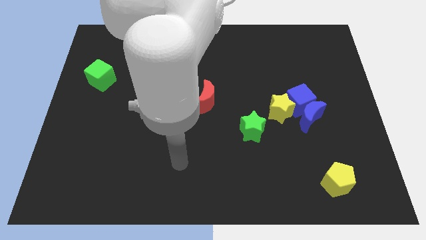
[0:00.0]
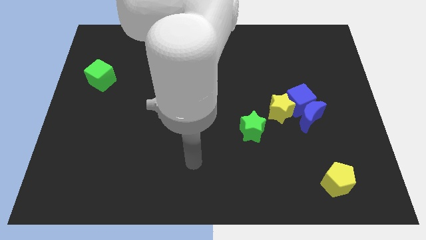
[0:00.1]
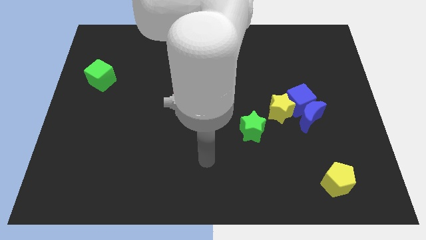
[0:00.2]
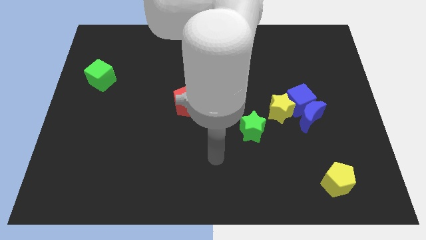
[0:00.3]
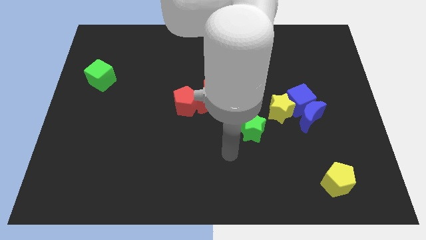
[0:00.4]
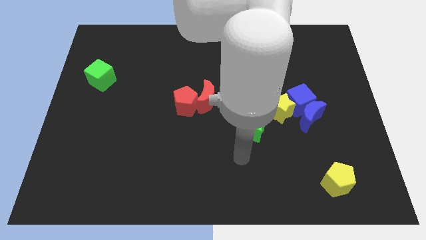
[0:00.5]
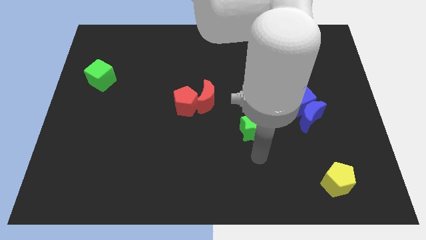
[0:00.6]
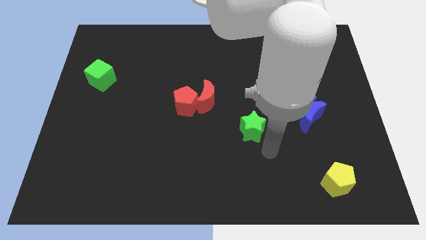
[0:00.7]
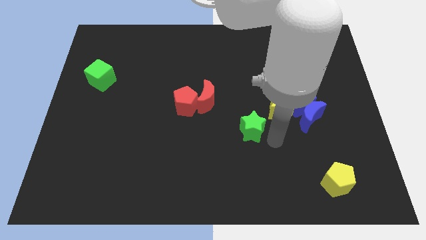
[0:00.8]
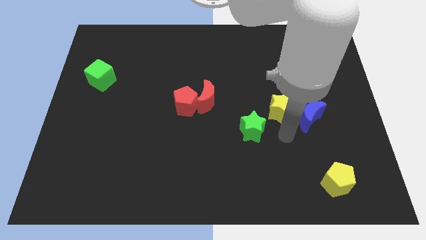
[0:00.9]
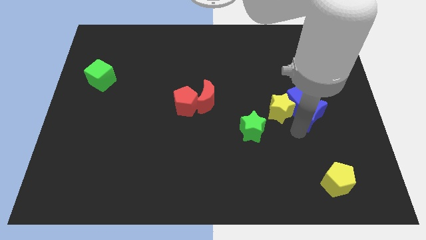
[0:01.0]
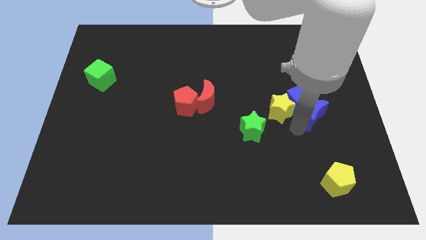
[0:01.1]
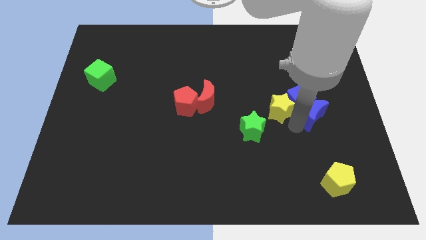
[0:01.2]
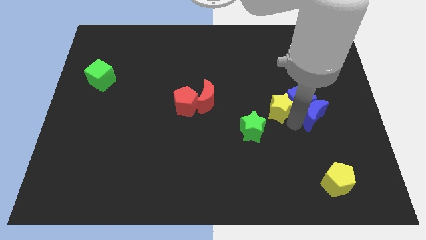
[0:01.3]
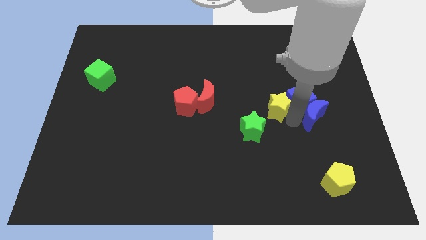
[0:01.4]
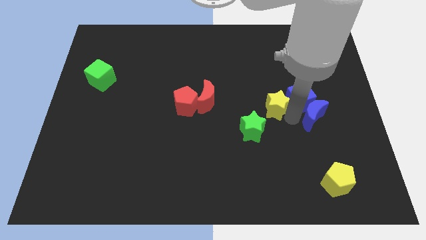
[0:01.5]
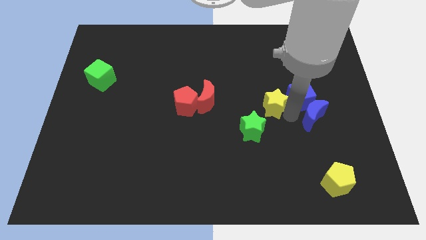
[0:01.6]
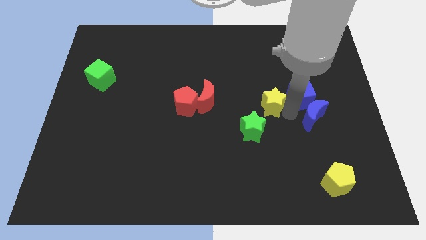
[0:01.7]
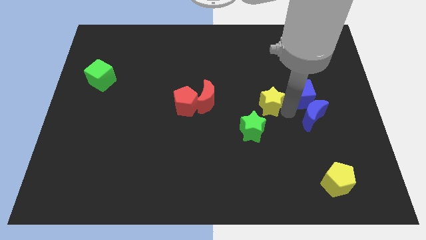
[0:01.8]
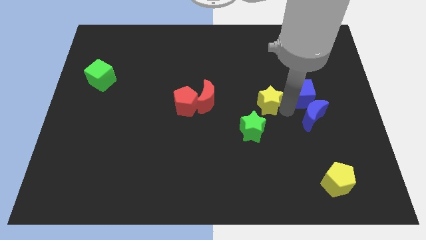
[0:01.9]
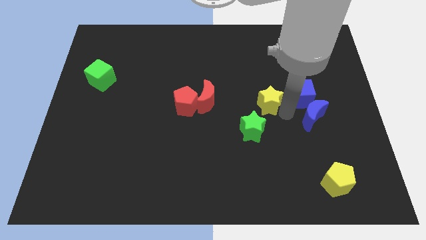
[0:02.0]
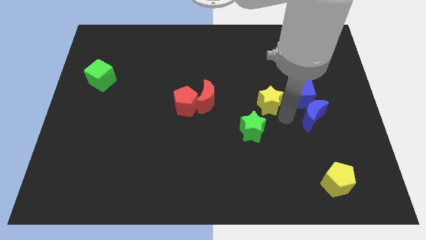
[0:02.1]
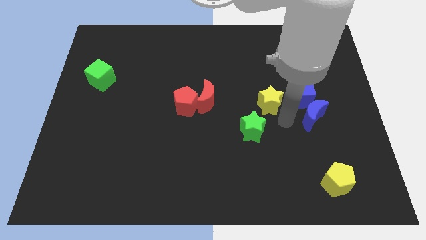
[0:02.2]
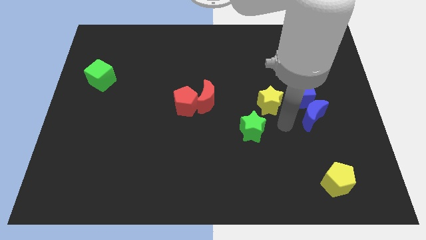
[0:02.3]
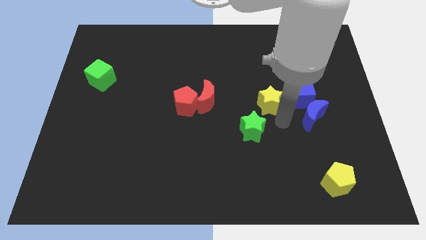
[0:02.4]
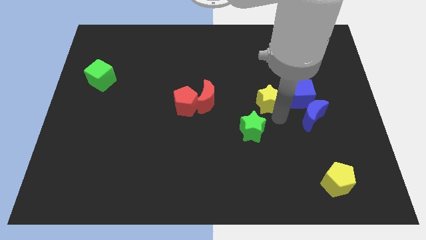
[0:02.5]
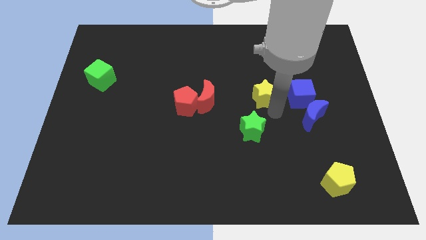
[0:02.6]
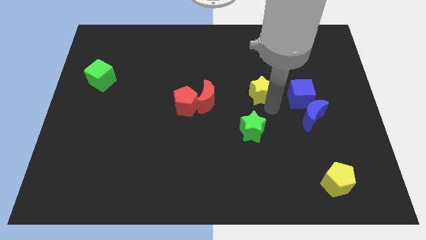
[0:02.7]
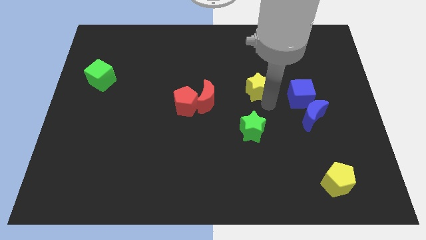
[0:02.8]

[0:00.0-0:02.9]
push the yellow star up and left diagonally slightly

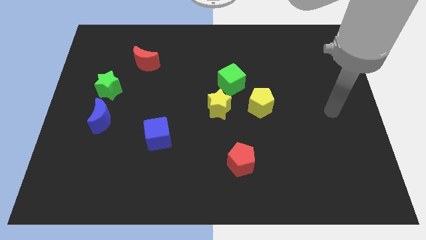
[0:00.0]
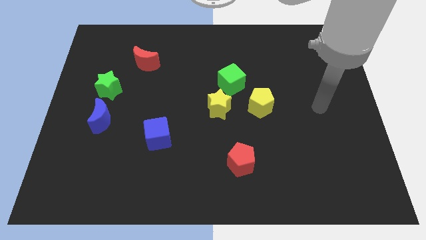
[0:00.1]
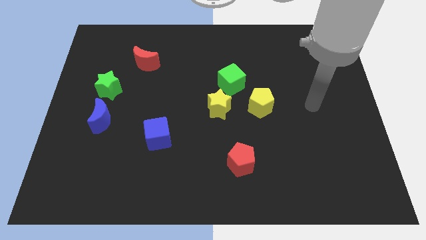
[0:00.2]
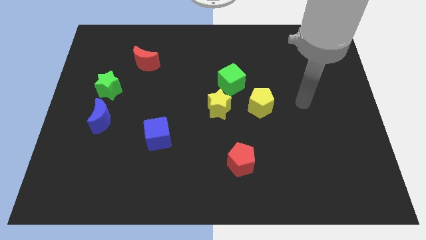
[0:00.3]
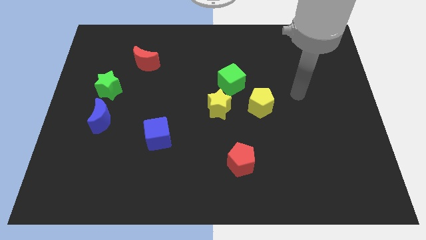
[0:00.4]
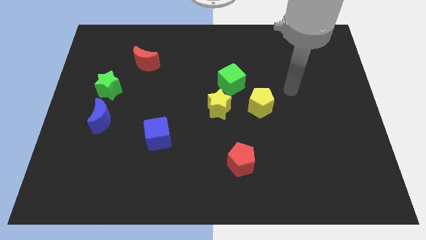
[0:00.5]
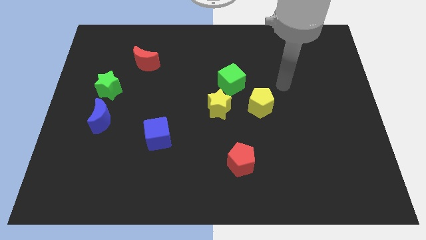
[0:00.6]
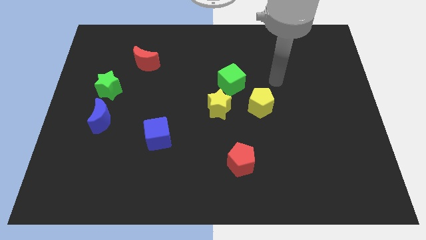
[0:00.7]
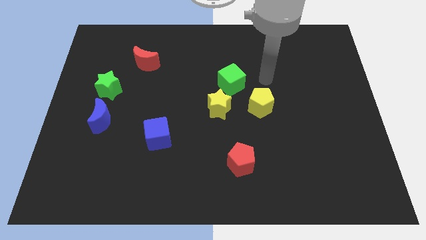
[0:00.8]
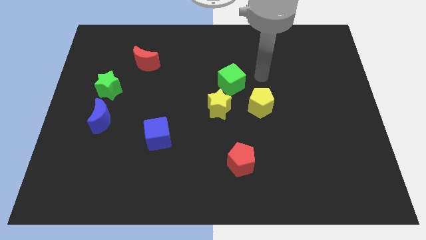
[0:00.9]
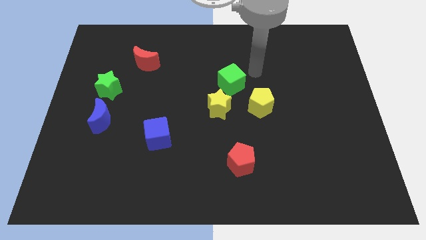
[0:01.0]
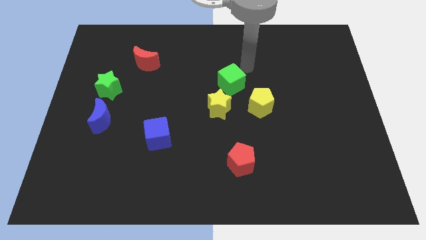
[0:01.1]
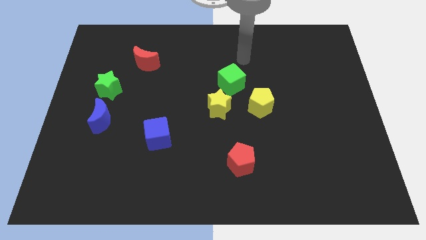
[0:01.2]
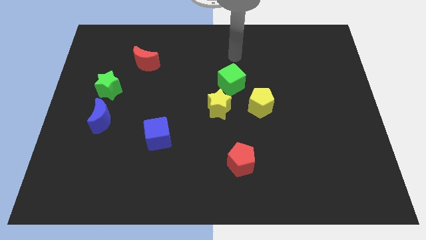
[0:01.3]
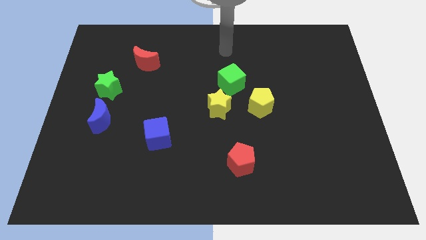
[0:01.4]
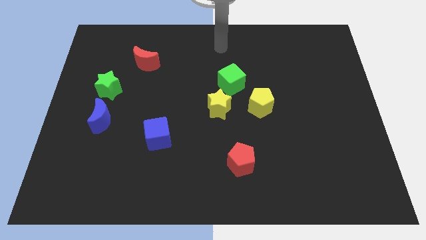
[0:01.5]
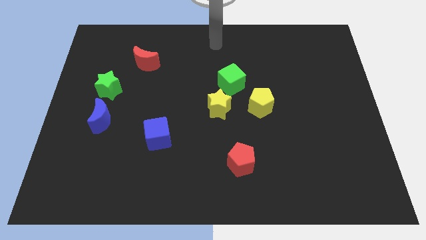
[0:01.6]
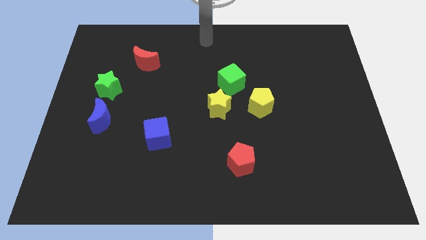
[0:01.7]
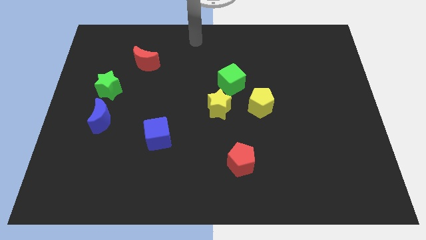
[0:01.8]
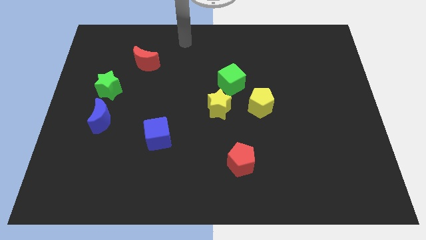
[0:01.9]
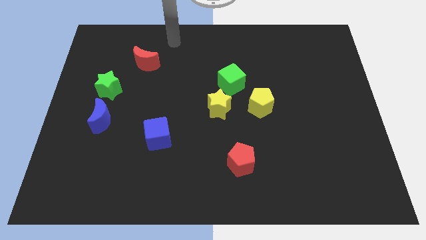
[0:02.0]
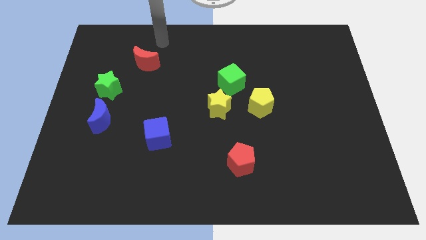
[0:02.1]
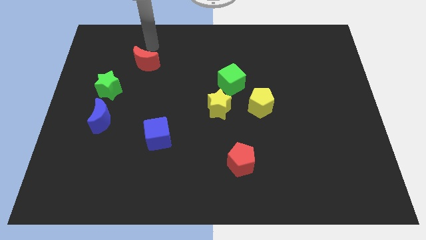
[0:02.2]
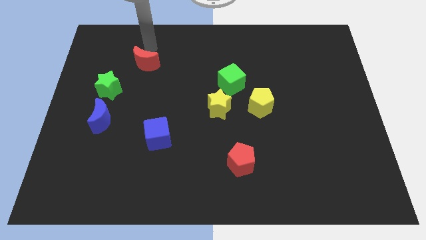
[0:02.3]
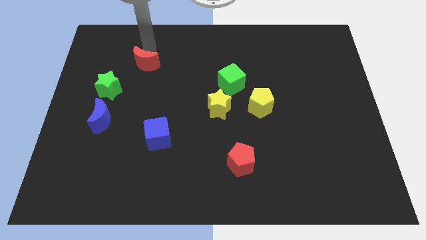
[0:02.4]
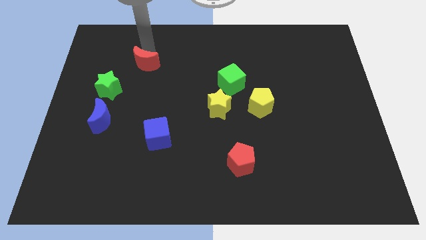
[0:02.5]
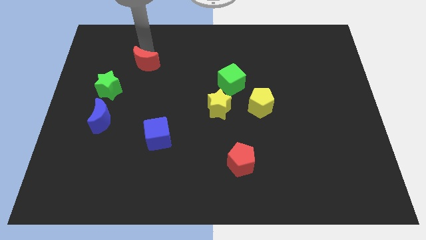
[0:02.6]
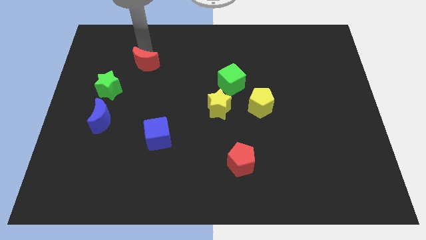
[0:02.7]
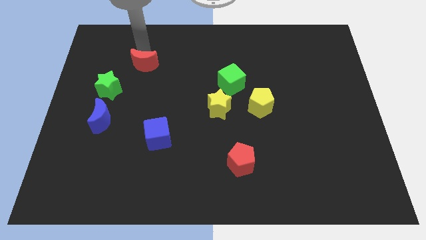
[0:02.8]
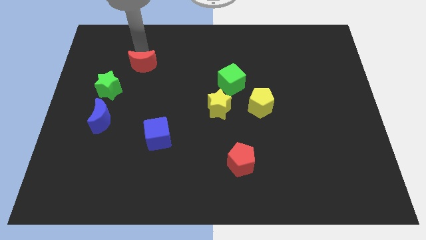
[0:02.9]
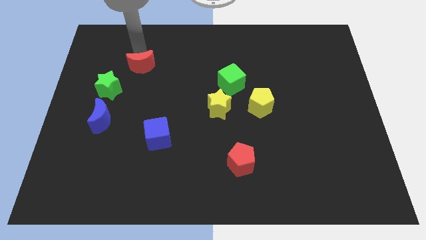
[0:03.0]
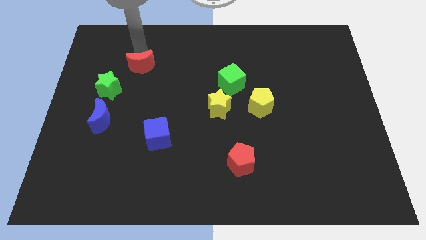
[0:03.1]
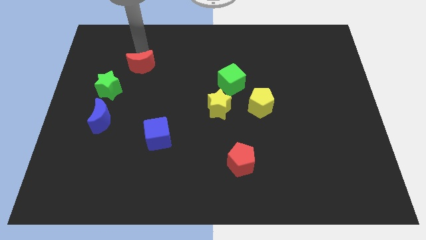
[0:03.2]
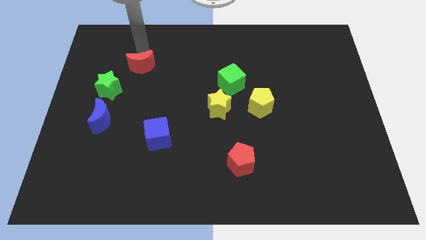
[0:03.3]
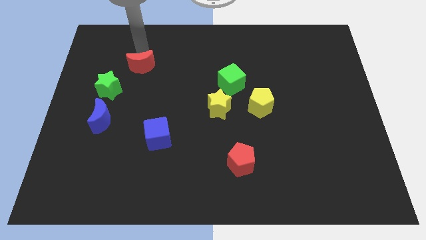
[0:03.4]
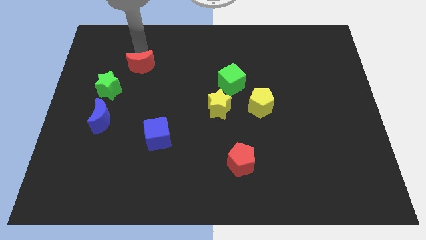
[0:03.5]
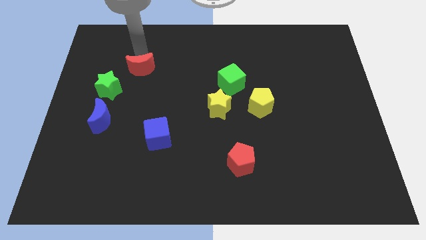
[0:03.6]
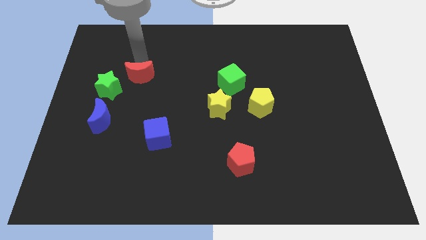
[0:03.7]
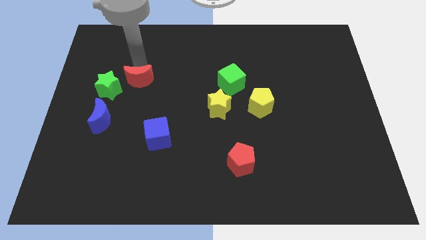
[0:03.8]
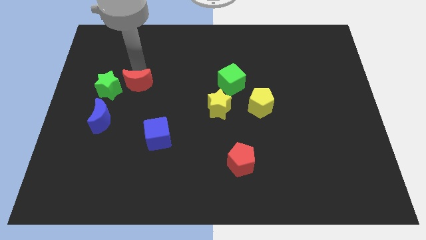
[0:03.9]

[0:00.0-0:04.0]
slide the red moon downwards slightly

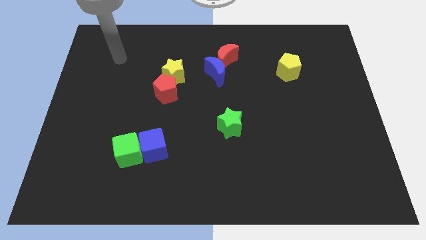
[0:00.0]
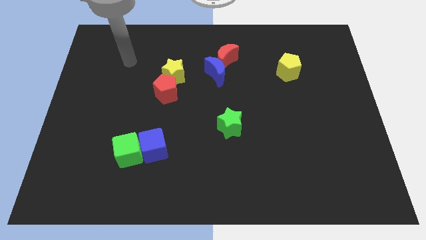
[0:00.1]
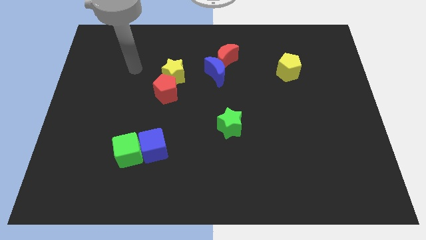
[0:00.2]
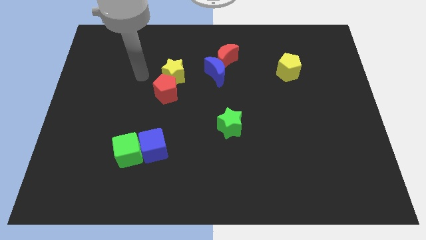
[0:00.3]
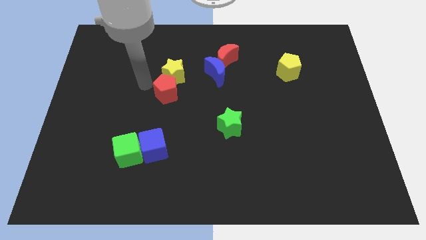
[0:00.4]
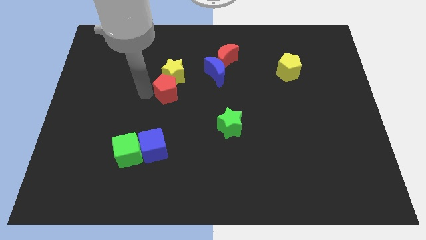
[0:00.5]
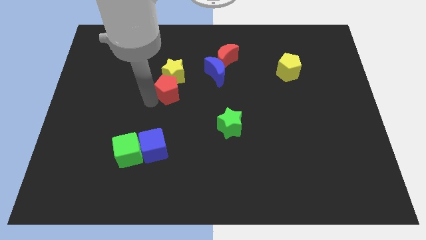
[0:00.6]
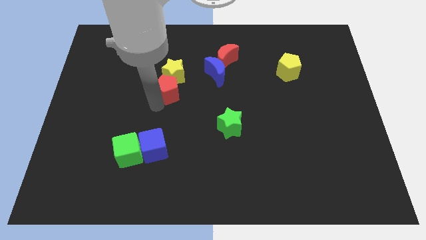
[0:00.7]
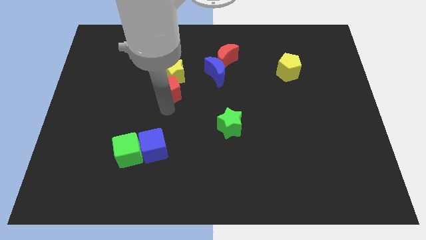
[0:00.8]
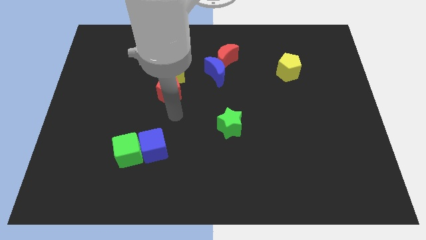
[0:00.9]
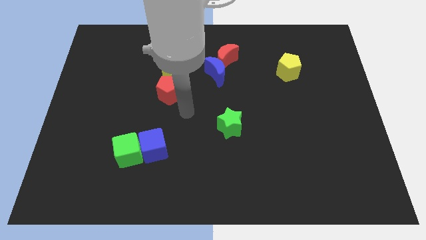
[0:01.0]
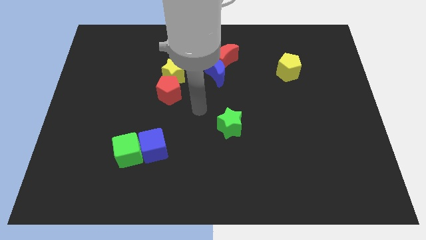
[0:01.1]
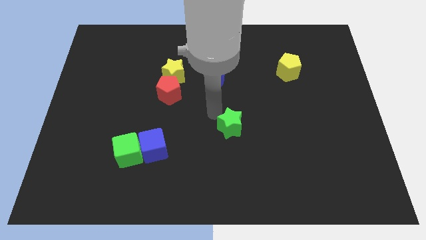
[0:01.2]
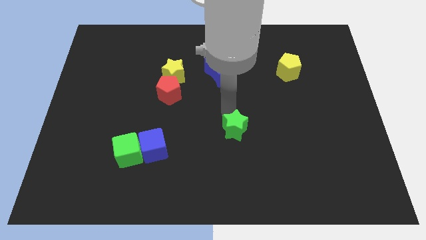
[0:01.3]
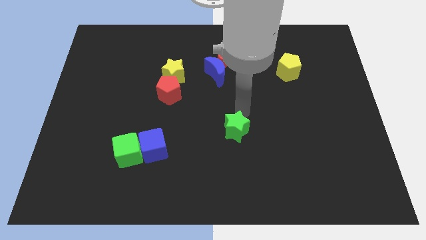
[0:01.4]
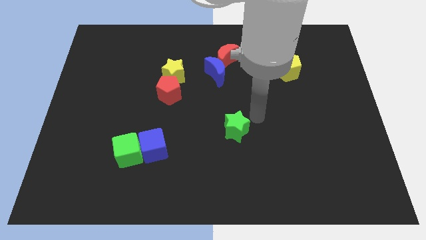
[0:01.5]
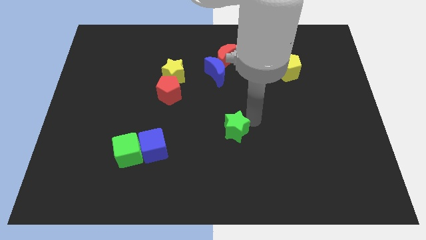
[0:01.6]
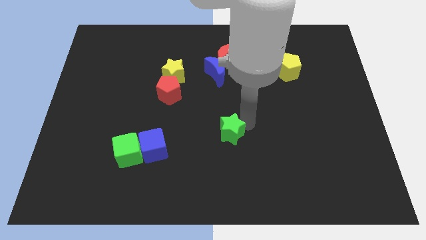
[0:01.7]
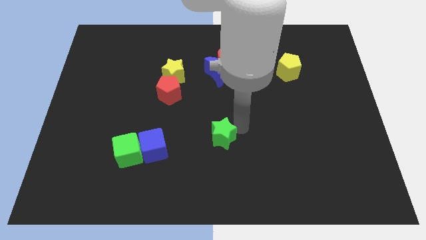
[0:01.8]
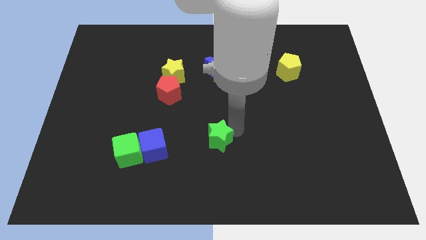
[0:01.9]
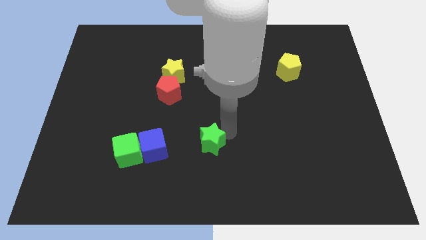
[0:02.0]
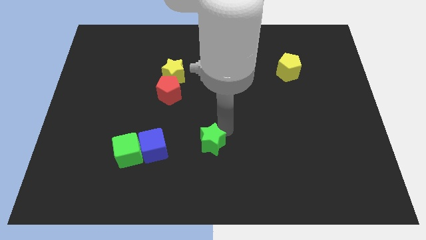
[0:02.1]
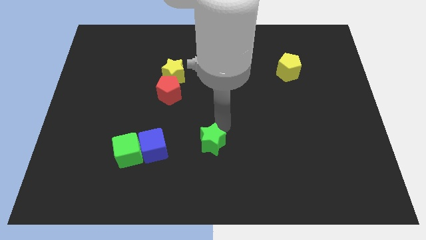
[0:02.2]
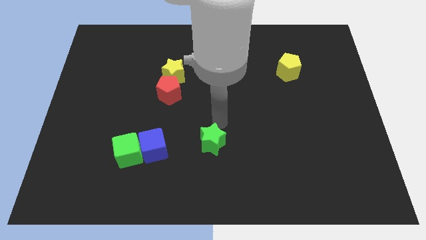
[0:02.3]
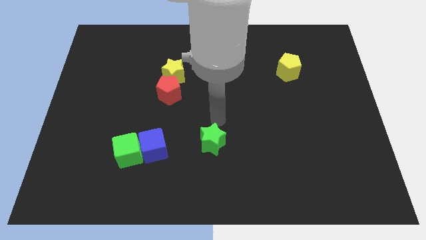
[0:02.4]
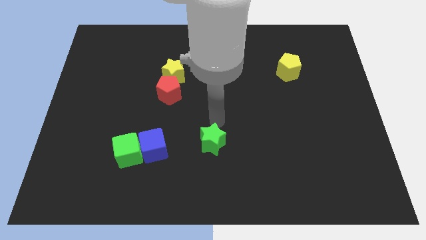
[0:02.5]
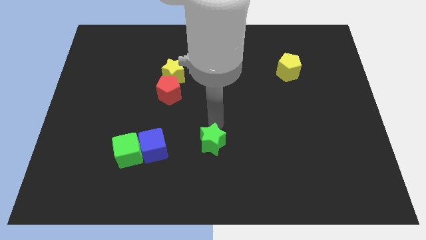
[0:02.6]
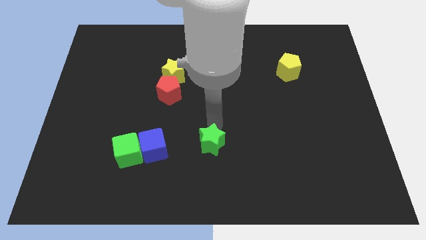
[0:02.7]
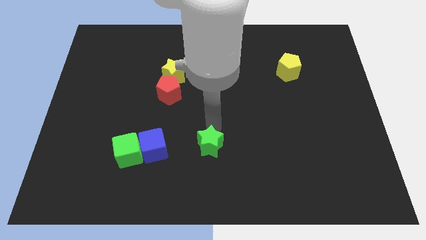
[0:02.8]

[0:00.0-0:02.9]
slide the green star a bit downwards and then to the left
